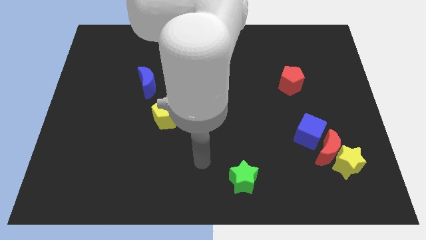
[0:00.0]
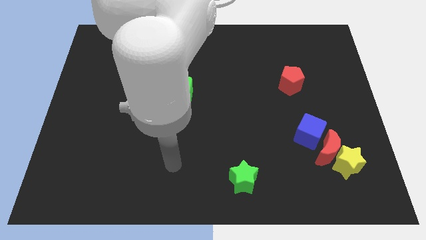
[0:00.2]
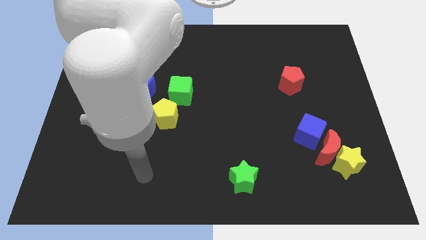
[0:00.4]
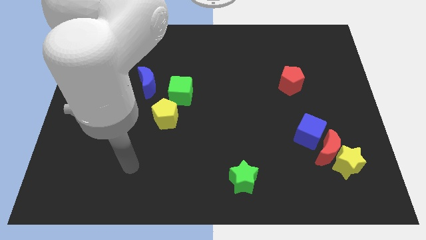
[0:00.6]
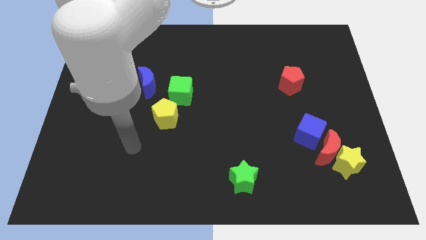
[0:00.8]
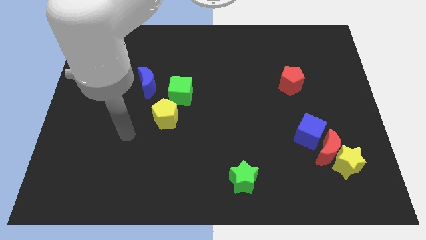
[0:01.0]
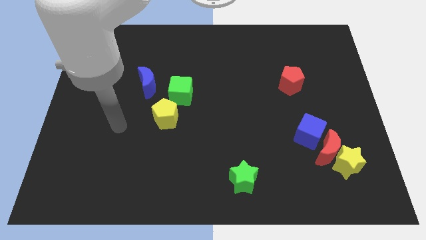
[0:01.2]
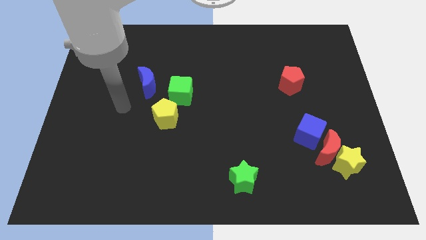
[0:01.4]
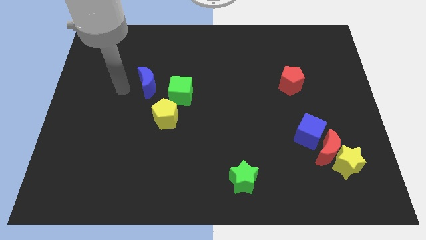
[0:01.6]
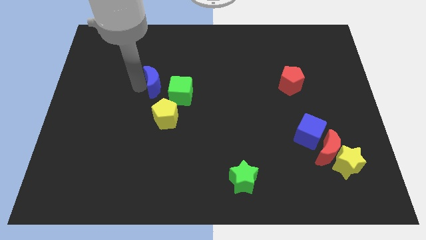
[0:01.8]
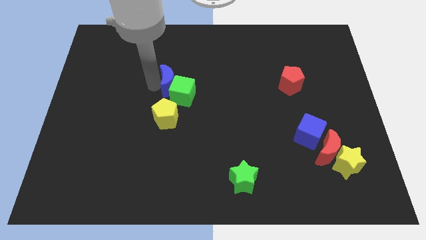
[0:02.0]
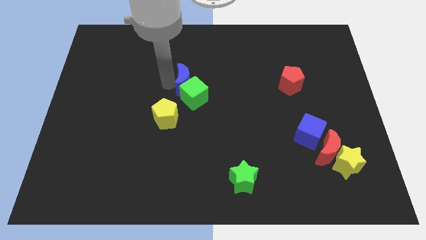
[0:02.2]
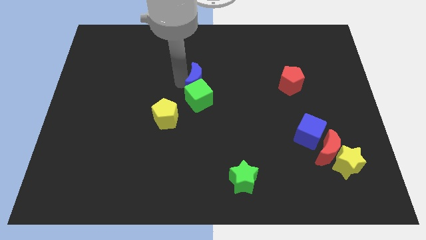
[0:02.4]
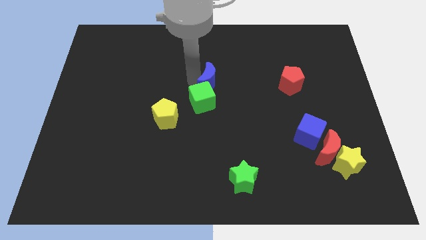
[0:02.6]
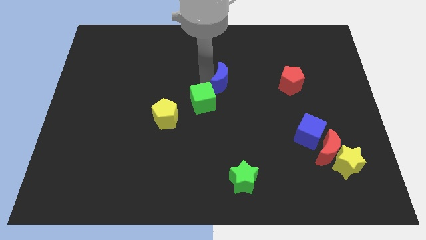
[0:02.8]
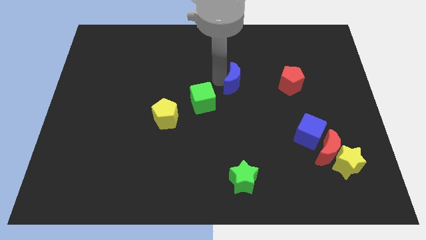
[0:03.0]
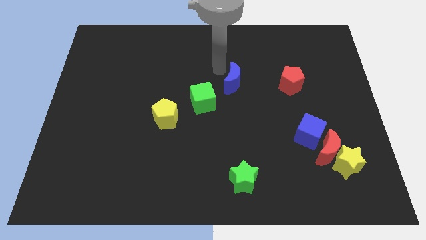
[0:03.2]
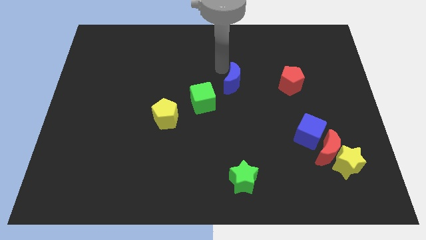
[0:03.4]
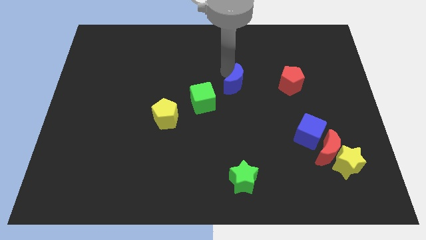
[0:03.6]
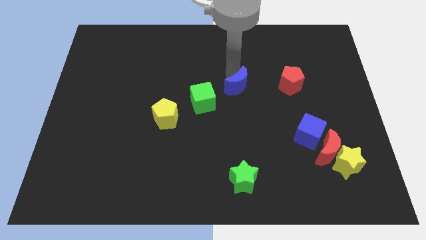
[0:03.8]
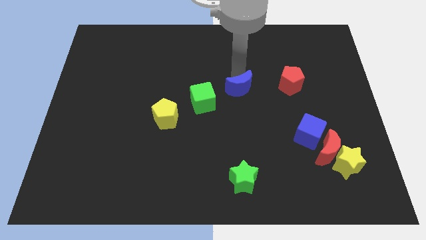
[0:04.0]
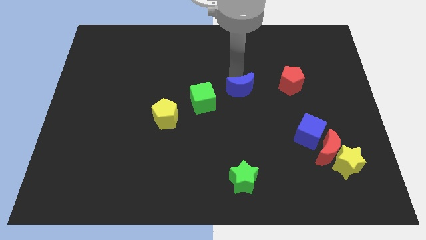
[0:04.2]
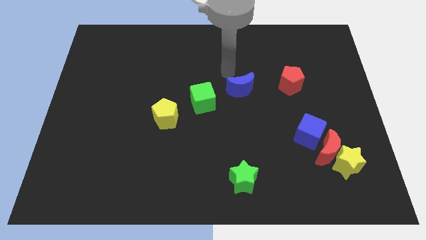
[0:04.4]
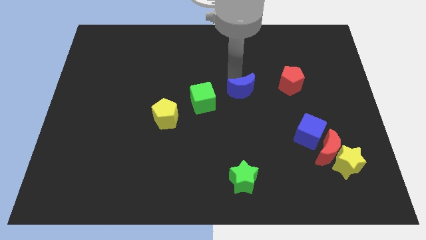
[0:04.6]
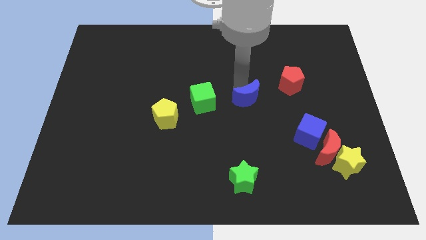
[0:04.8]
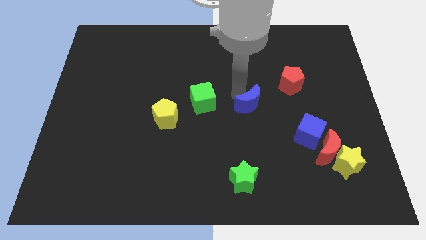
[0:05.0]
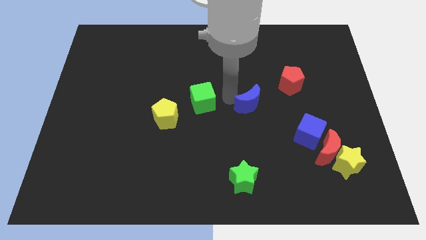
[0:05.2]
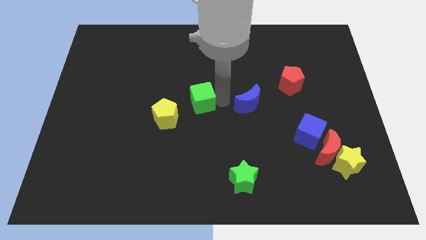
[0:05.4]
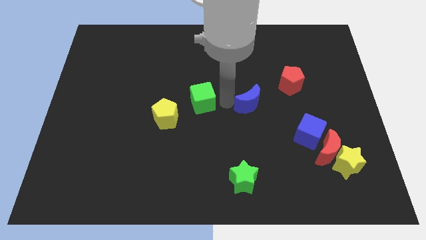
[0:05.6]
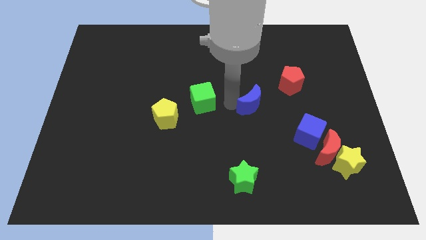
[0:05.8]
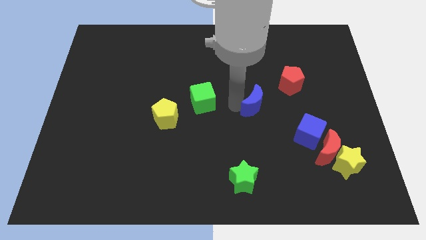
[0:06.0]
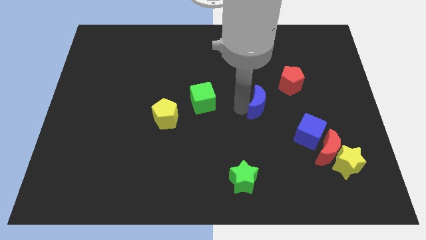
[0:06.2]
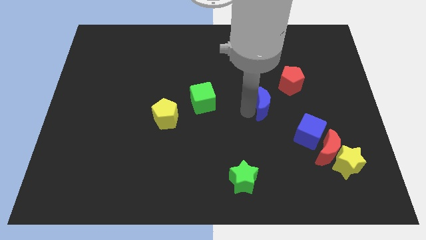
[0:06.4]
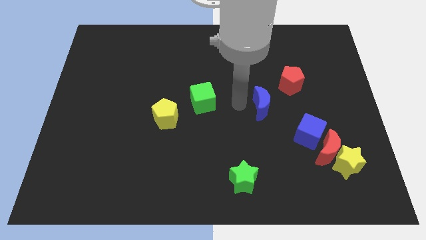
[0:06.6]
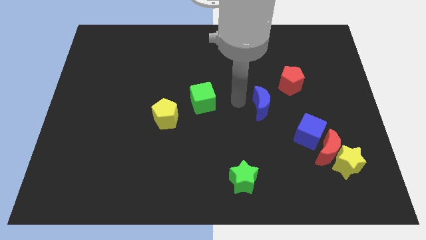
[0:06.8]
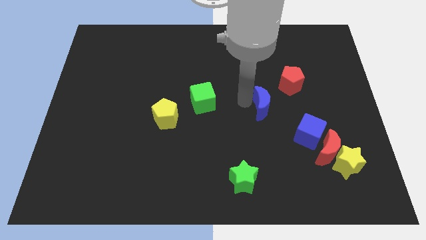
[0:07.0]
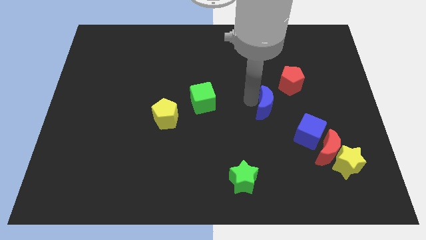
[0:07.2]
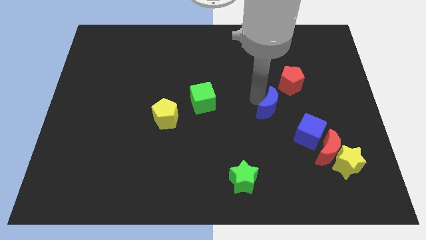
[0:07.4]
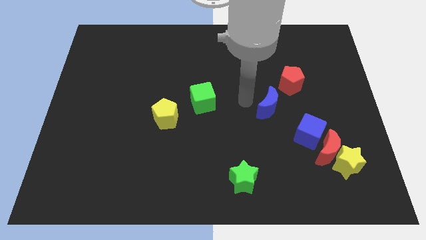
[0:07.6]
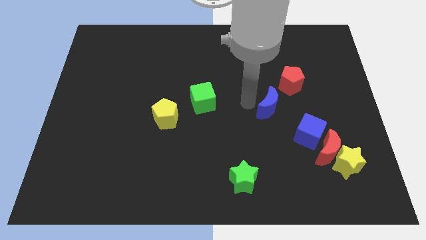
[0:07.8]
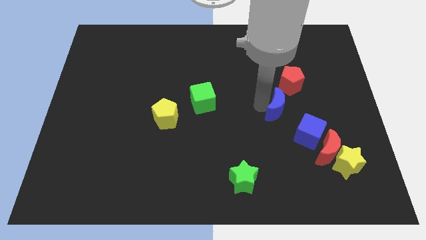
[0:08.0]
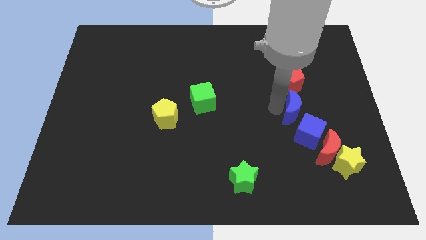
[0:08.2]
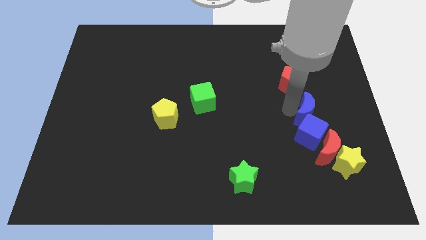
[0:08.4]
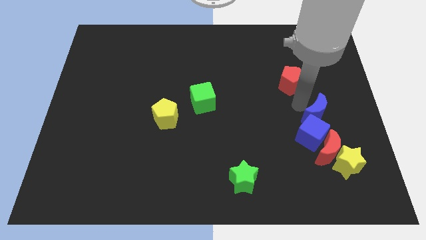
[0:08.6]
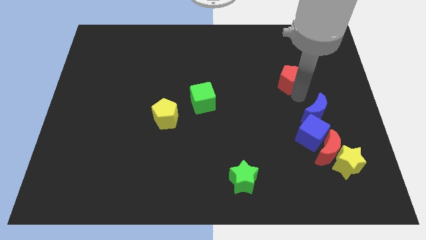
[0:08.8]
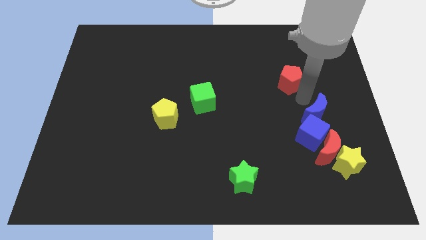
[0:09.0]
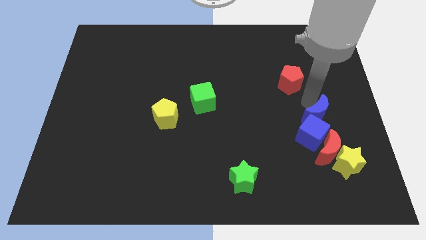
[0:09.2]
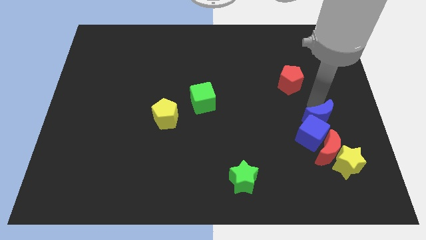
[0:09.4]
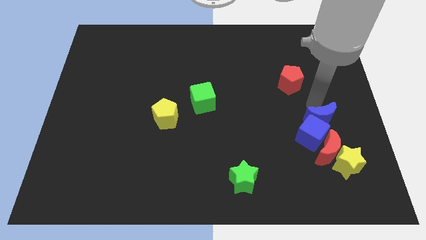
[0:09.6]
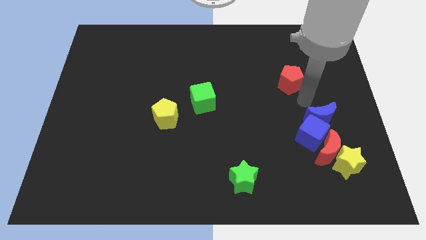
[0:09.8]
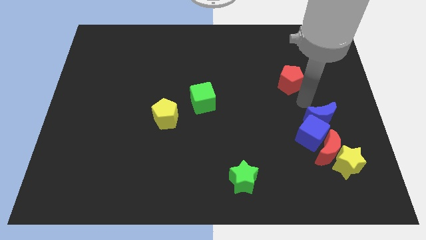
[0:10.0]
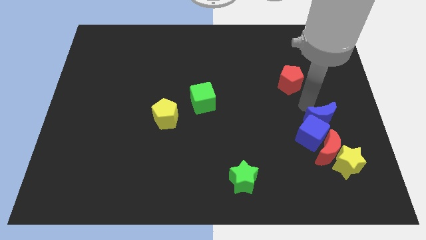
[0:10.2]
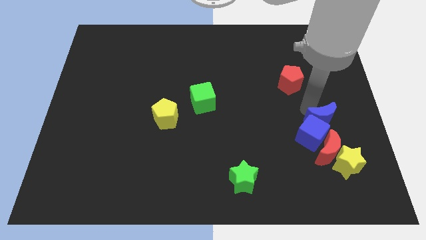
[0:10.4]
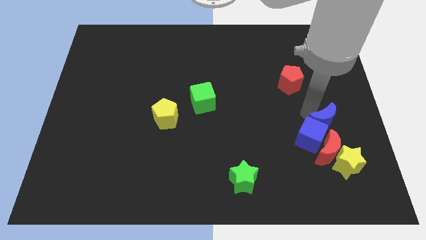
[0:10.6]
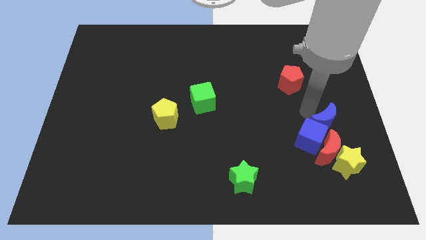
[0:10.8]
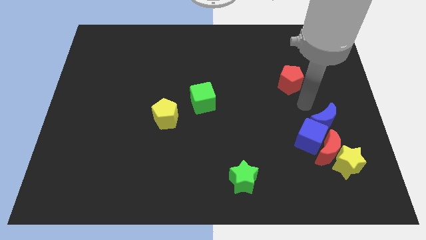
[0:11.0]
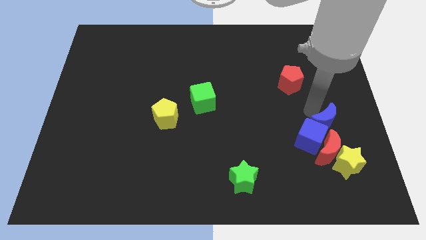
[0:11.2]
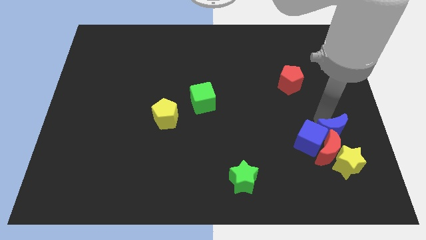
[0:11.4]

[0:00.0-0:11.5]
slide the blue moon to the red moon

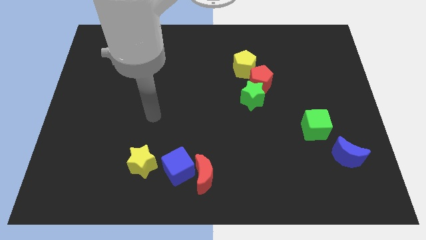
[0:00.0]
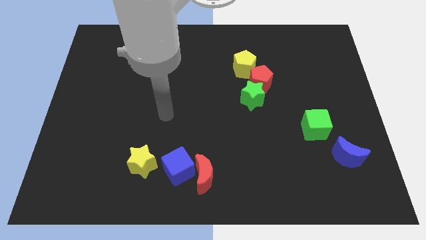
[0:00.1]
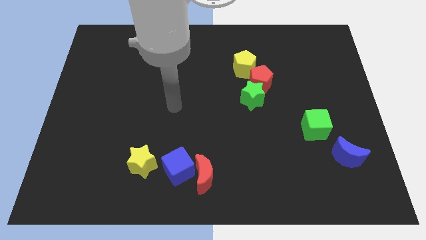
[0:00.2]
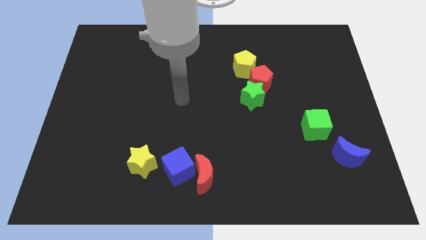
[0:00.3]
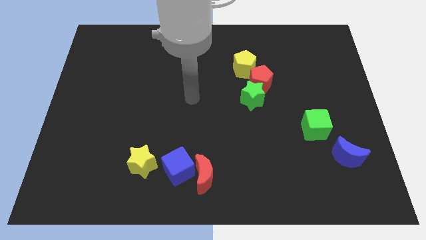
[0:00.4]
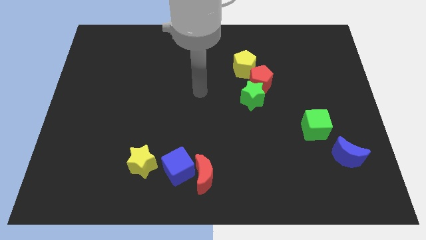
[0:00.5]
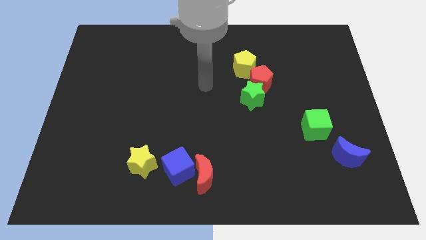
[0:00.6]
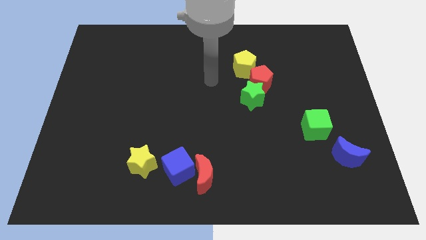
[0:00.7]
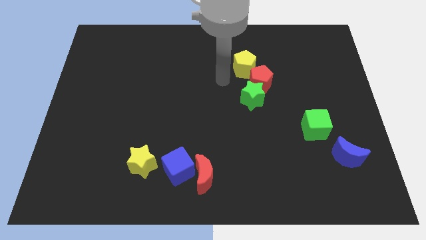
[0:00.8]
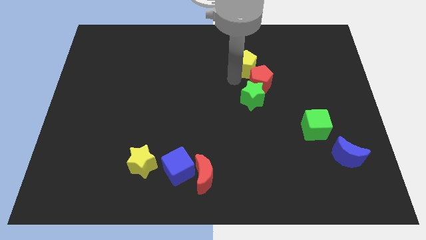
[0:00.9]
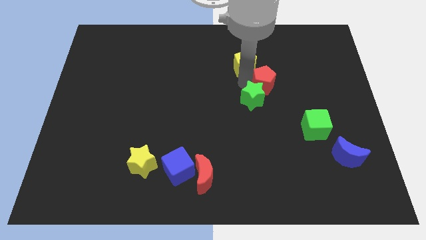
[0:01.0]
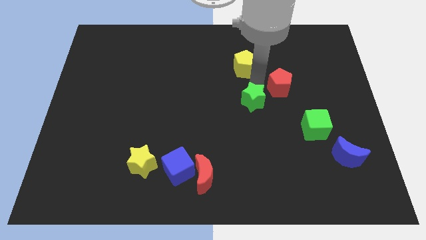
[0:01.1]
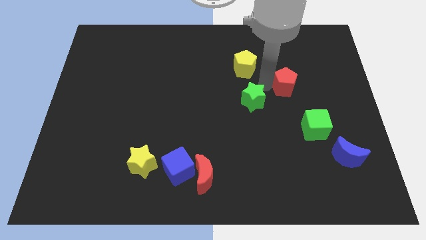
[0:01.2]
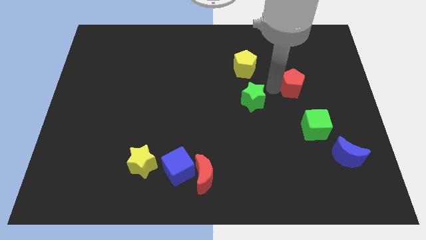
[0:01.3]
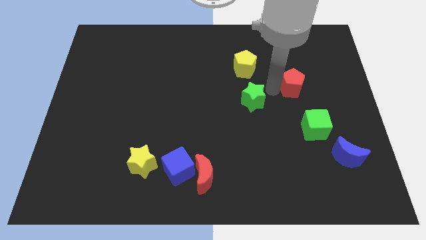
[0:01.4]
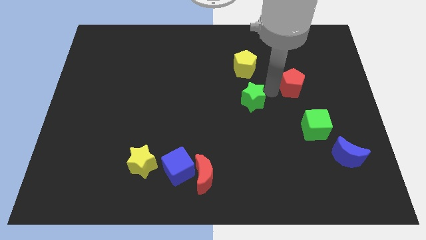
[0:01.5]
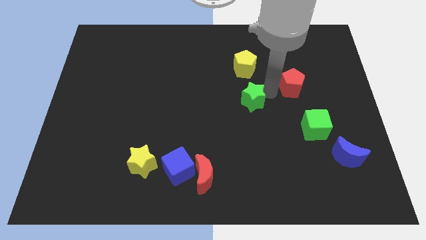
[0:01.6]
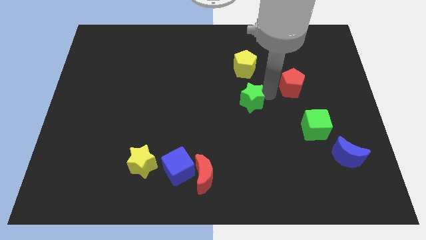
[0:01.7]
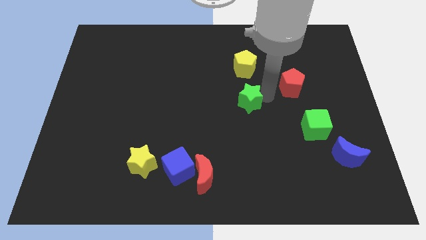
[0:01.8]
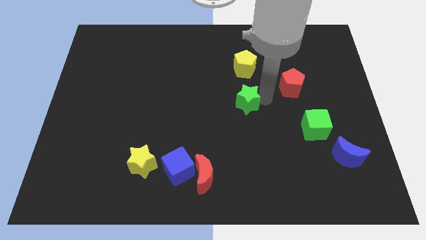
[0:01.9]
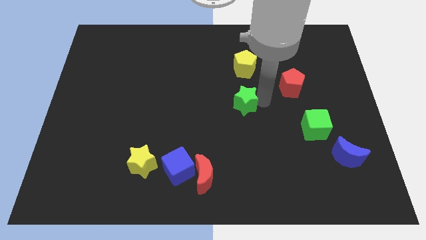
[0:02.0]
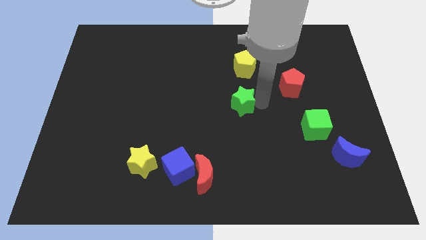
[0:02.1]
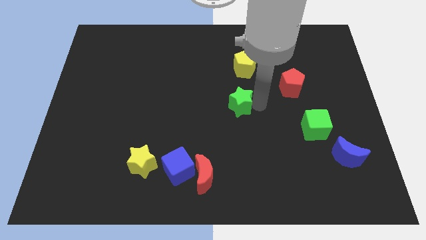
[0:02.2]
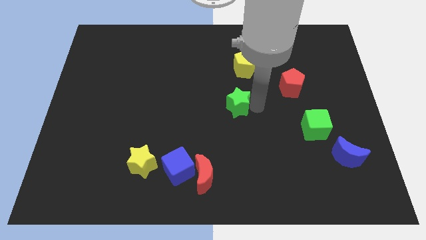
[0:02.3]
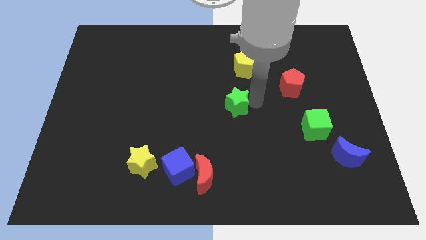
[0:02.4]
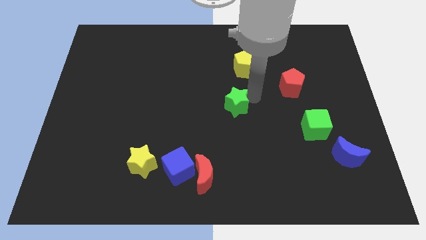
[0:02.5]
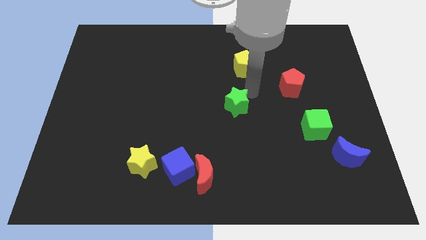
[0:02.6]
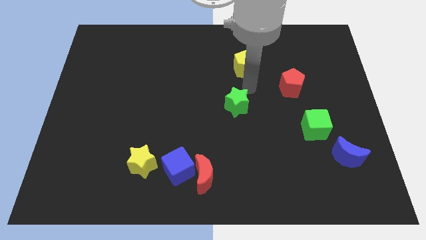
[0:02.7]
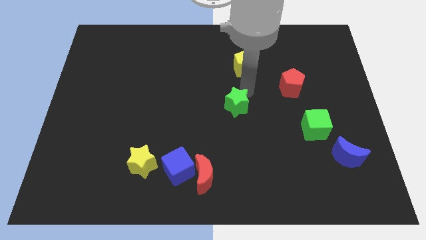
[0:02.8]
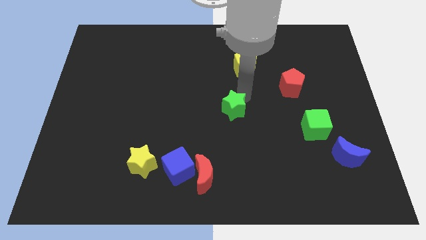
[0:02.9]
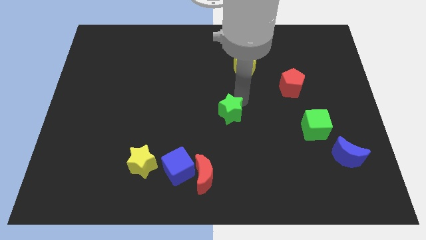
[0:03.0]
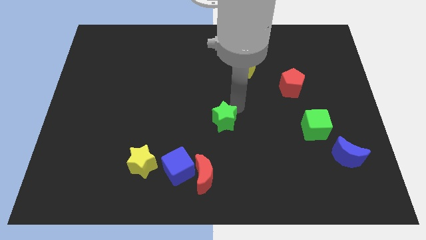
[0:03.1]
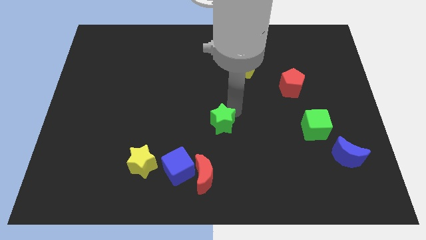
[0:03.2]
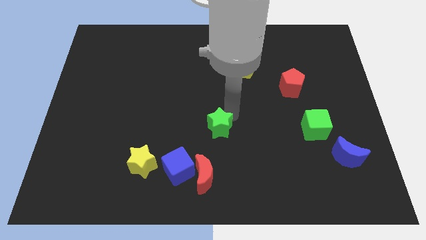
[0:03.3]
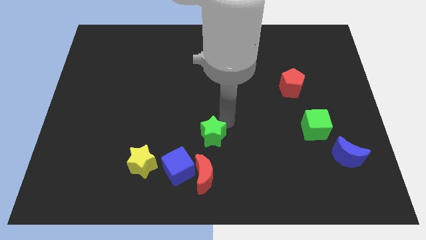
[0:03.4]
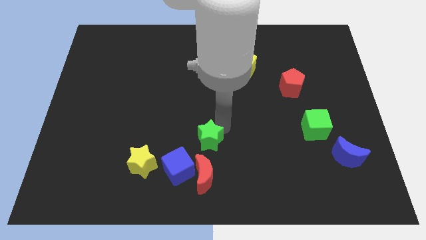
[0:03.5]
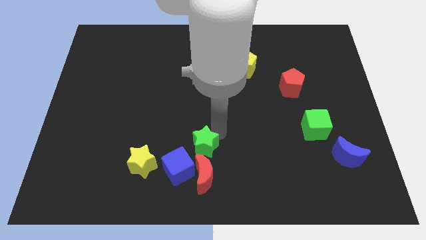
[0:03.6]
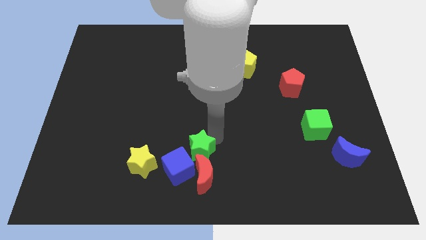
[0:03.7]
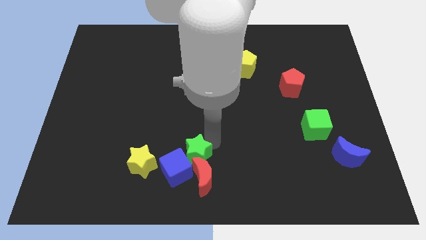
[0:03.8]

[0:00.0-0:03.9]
slide the green star towards the blue cube
